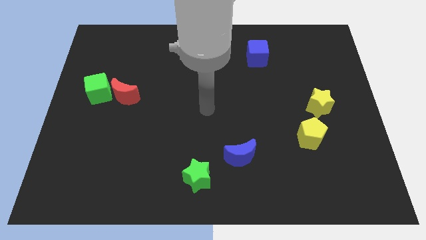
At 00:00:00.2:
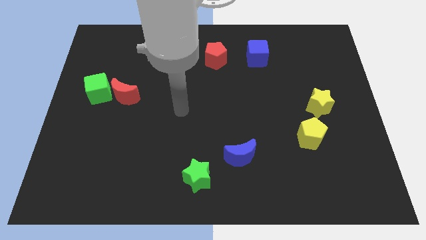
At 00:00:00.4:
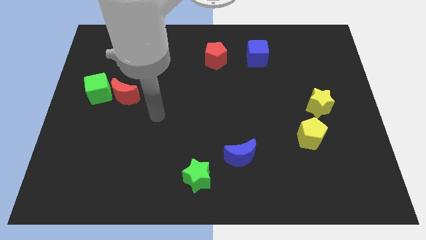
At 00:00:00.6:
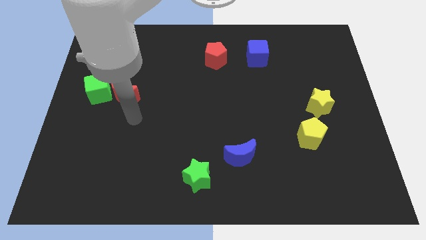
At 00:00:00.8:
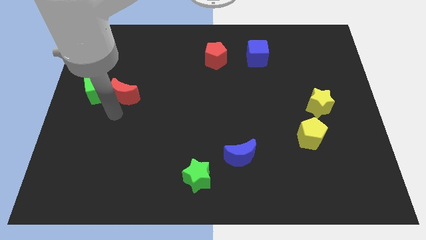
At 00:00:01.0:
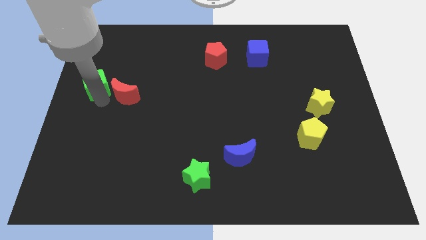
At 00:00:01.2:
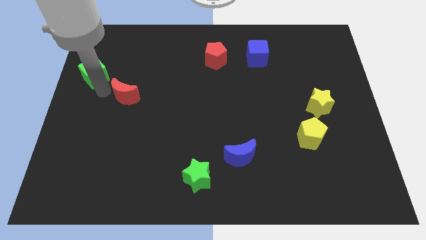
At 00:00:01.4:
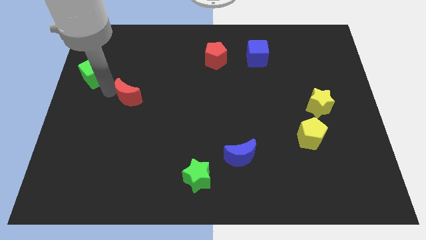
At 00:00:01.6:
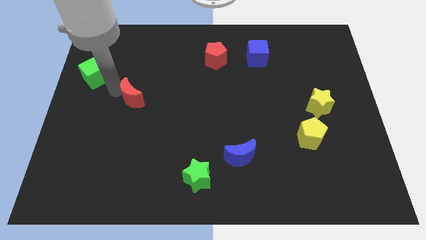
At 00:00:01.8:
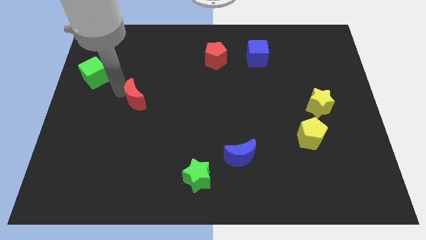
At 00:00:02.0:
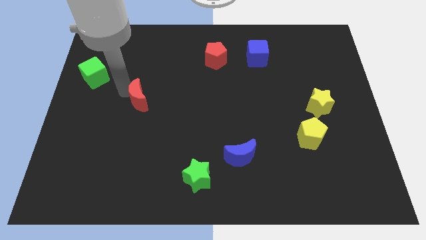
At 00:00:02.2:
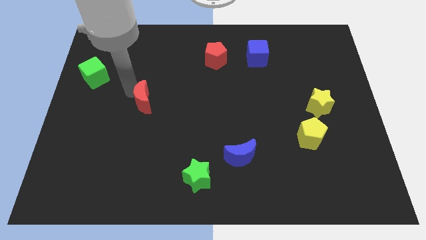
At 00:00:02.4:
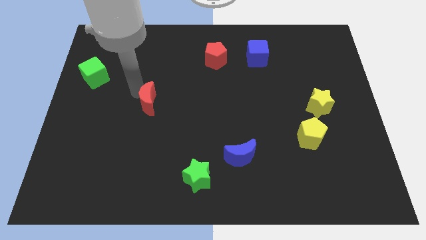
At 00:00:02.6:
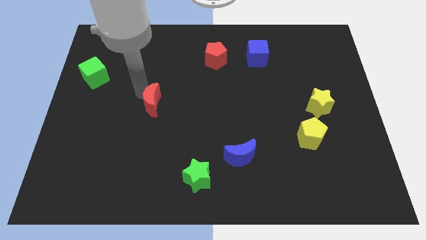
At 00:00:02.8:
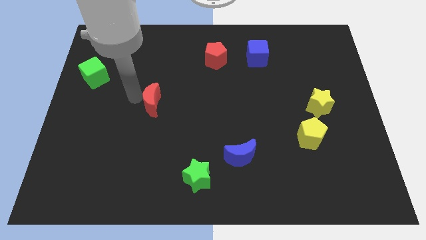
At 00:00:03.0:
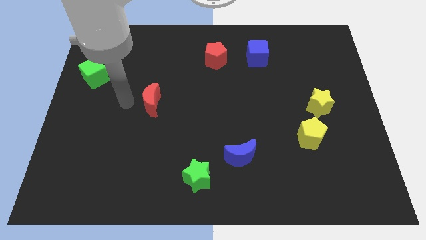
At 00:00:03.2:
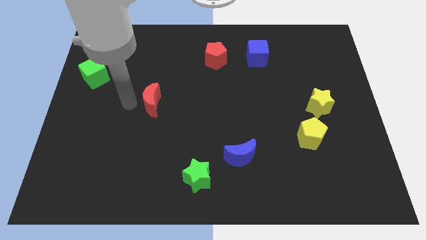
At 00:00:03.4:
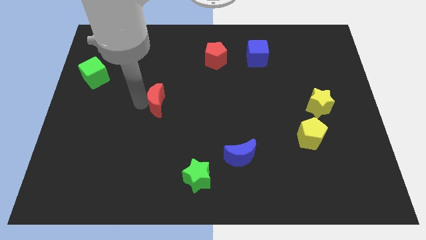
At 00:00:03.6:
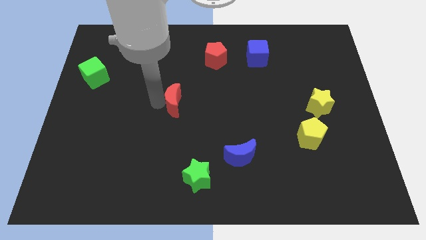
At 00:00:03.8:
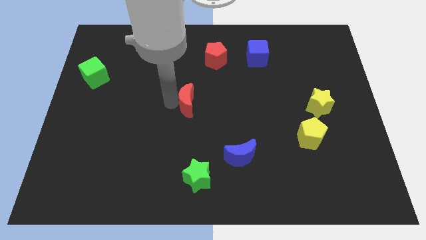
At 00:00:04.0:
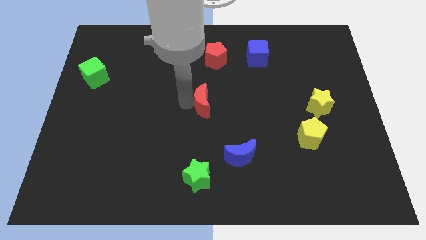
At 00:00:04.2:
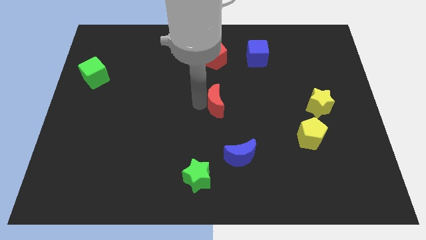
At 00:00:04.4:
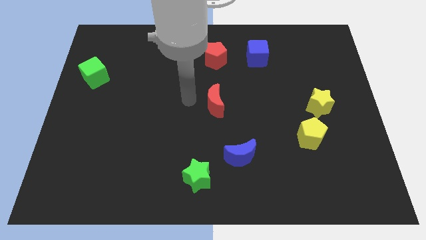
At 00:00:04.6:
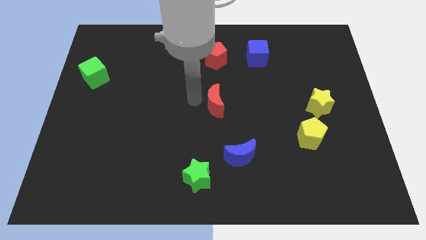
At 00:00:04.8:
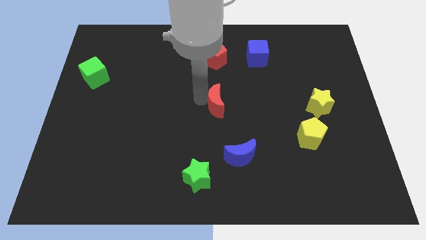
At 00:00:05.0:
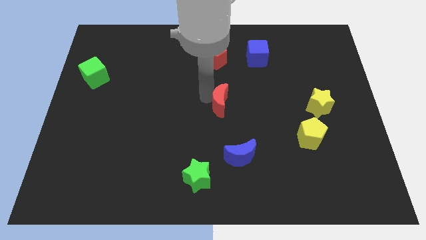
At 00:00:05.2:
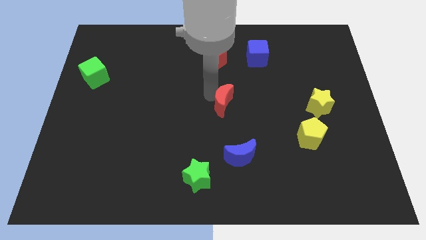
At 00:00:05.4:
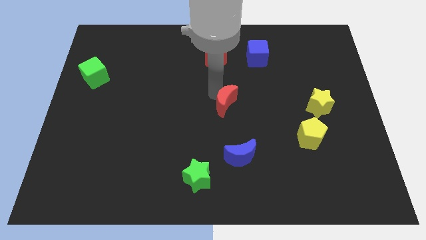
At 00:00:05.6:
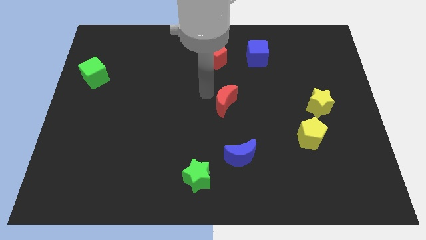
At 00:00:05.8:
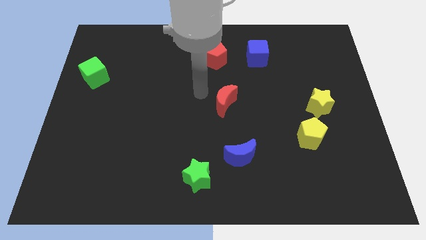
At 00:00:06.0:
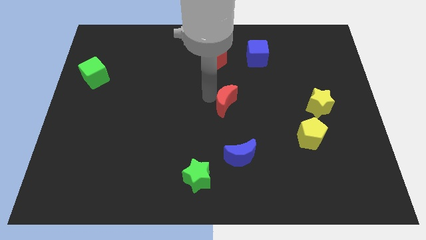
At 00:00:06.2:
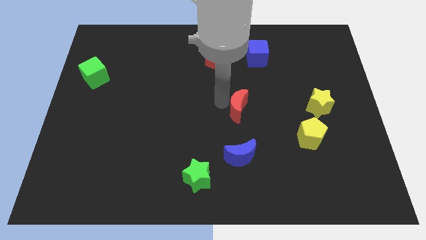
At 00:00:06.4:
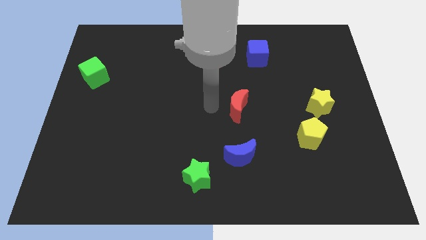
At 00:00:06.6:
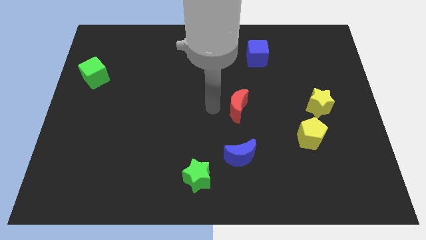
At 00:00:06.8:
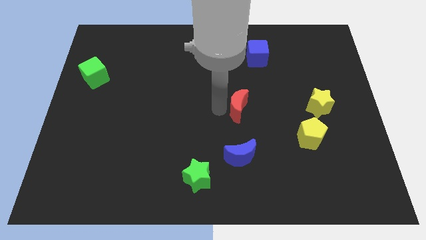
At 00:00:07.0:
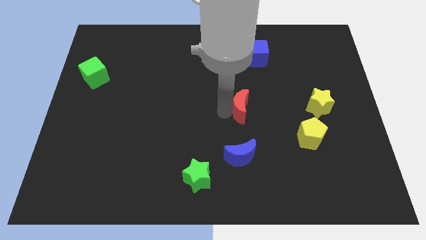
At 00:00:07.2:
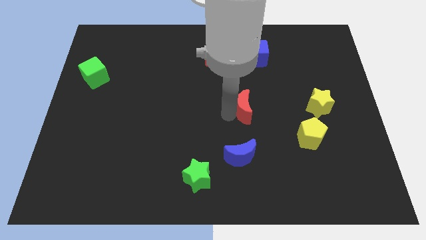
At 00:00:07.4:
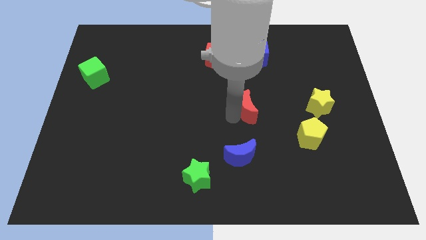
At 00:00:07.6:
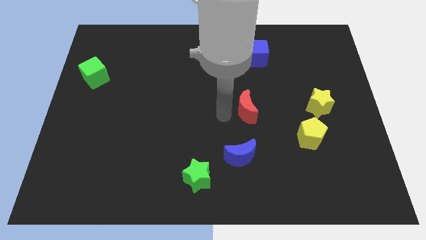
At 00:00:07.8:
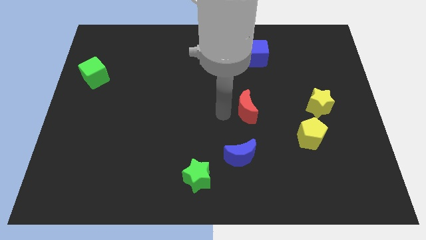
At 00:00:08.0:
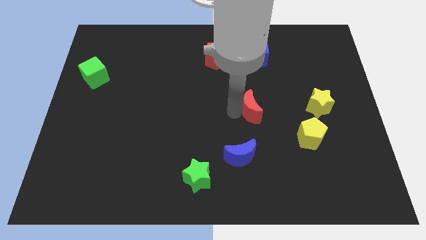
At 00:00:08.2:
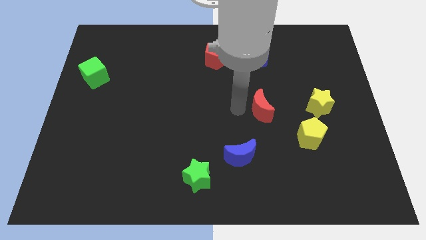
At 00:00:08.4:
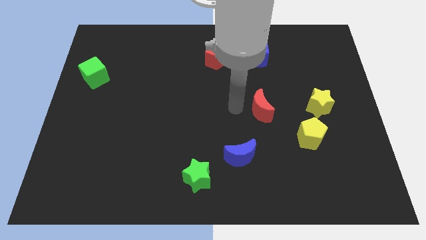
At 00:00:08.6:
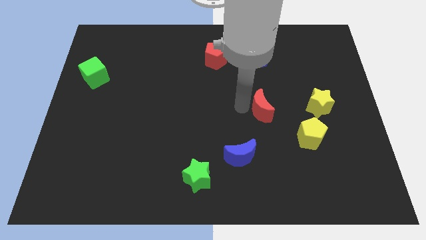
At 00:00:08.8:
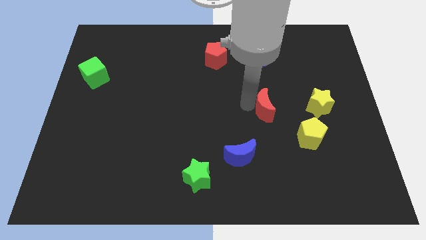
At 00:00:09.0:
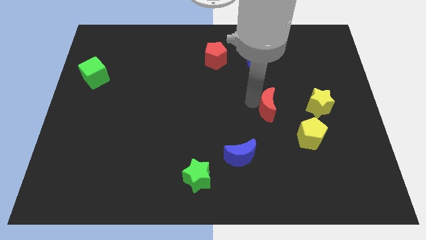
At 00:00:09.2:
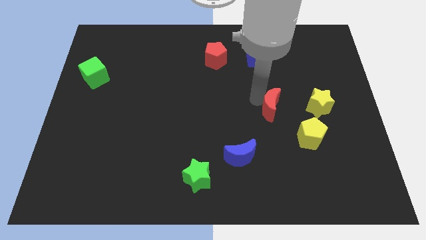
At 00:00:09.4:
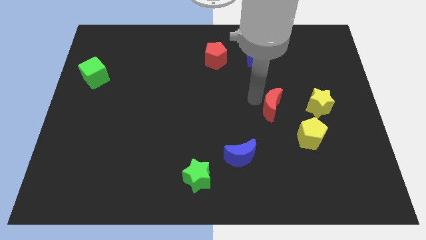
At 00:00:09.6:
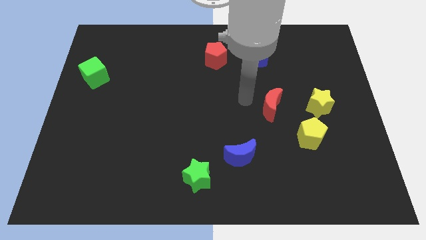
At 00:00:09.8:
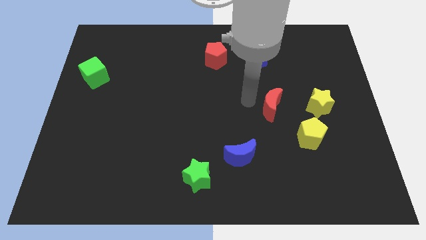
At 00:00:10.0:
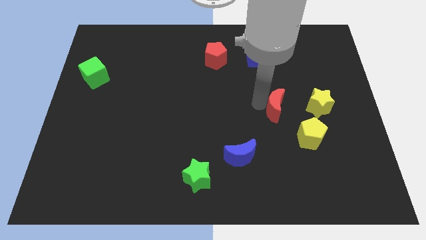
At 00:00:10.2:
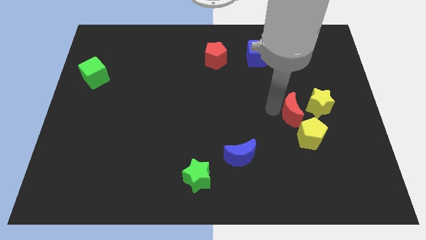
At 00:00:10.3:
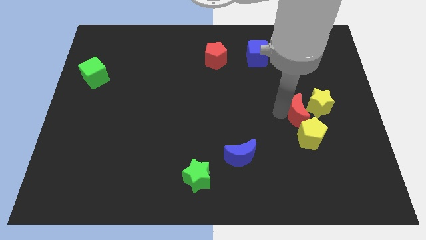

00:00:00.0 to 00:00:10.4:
move the red moon next to the yellow star

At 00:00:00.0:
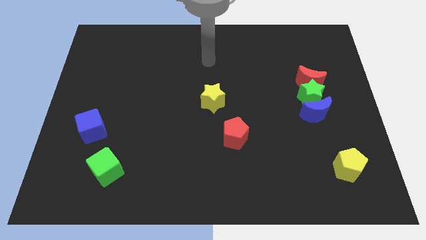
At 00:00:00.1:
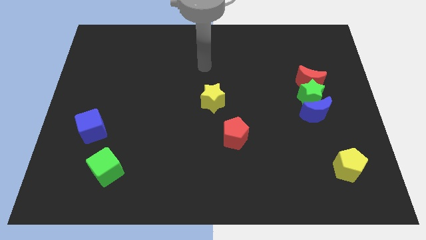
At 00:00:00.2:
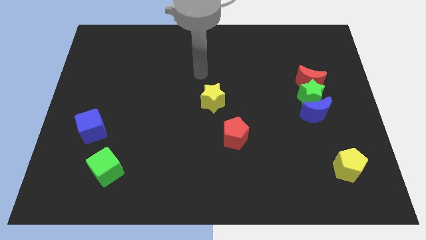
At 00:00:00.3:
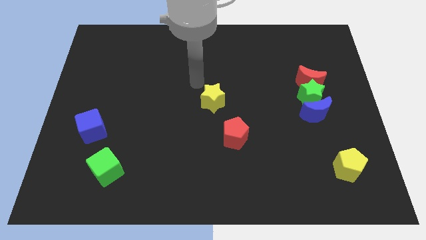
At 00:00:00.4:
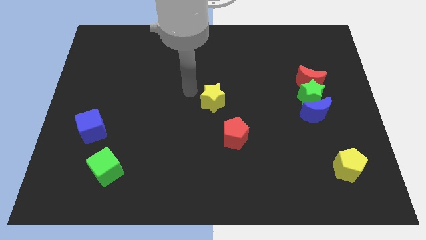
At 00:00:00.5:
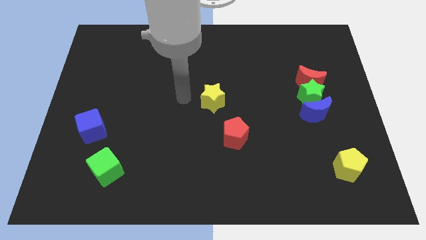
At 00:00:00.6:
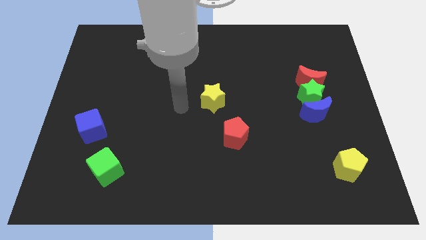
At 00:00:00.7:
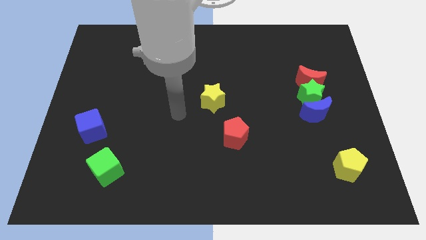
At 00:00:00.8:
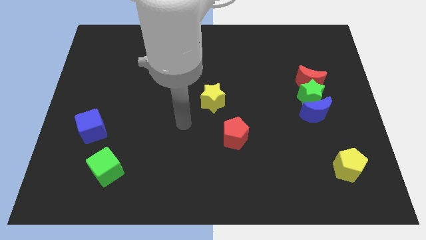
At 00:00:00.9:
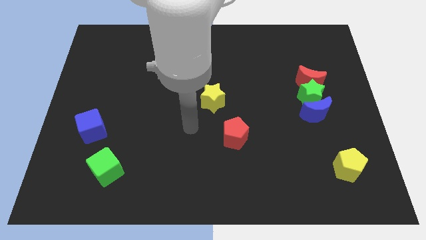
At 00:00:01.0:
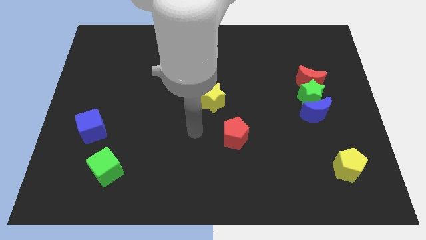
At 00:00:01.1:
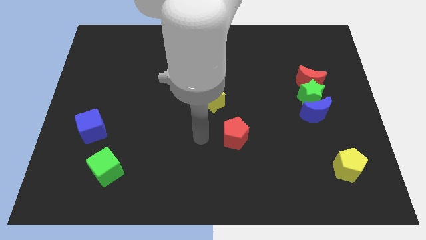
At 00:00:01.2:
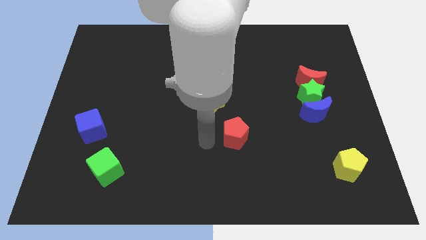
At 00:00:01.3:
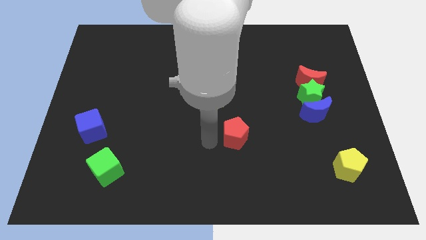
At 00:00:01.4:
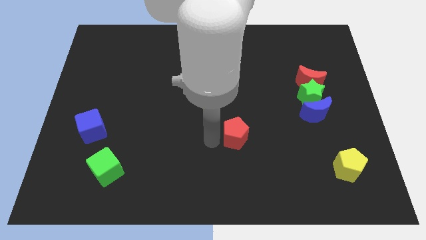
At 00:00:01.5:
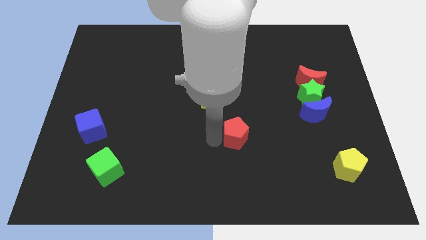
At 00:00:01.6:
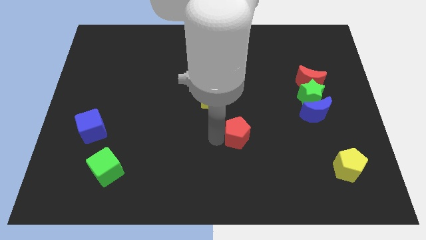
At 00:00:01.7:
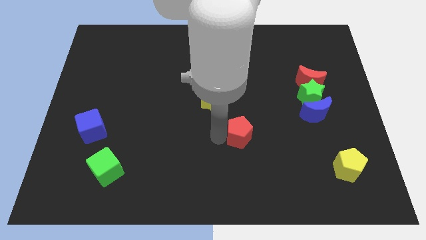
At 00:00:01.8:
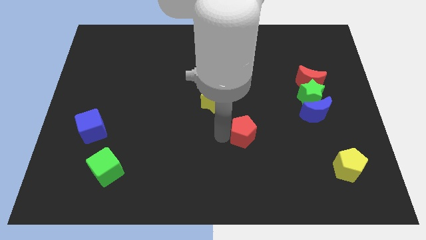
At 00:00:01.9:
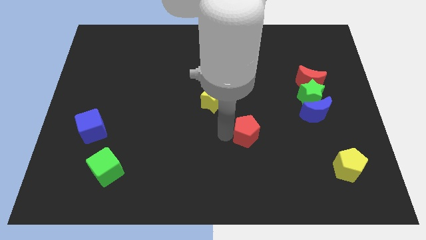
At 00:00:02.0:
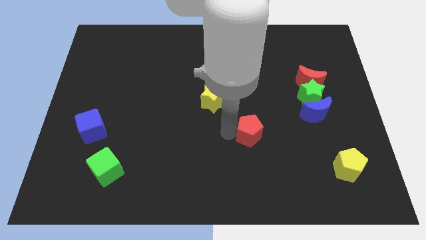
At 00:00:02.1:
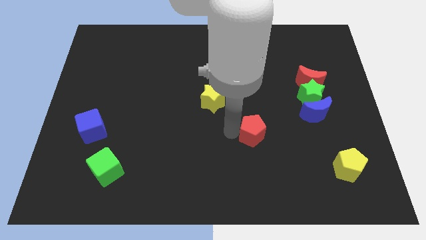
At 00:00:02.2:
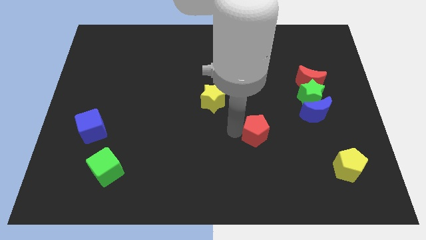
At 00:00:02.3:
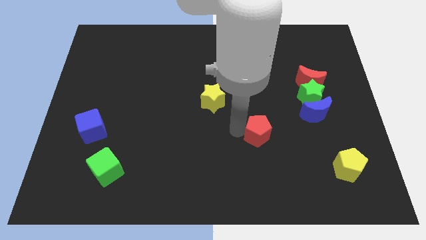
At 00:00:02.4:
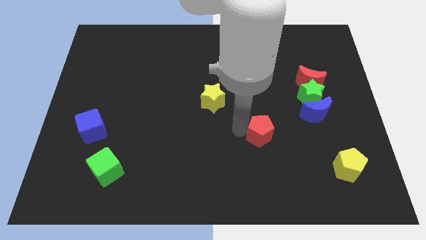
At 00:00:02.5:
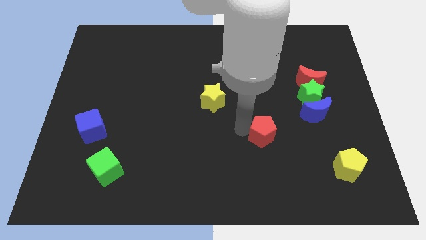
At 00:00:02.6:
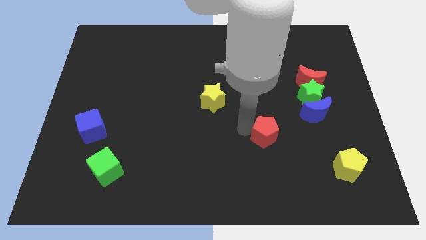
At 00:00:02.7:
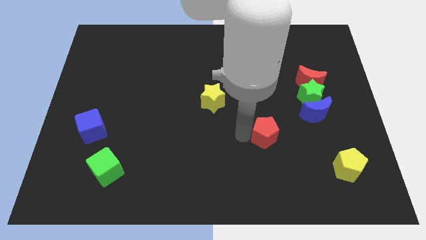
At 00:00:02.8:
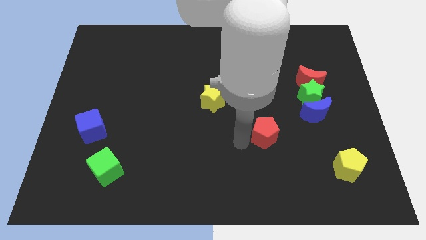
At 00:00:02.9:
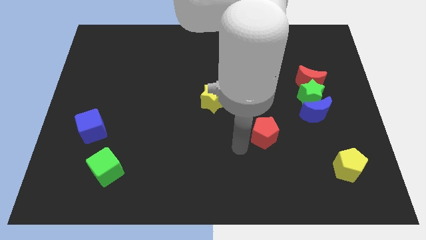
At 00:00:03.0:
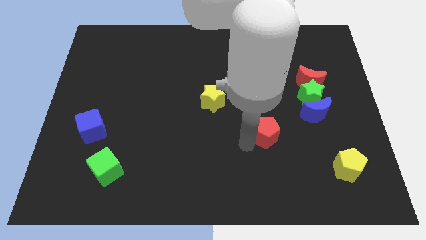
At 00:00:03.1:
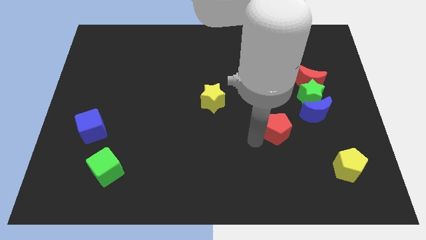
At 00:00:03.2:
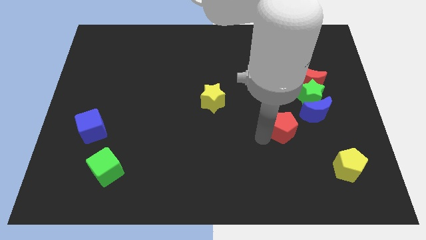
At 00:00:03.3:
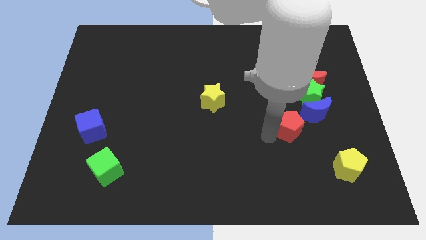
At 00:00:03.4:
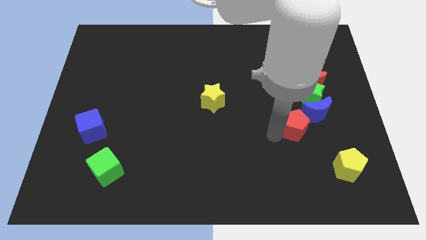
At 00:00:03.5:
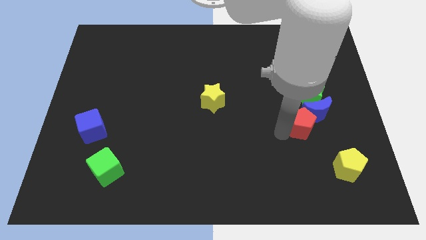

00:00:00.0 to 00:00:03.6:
slide the red pentagon next to the blue moon
